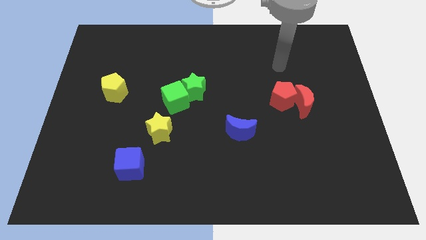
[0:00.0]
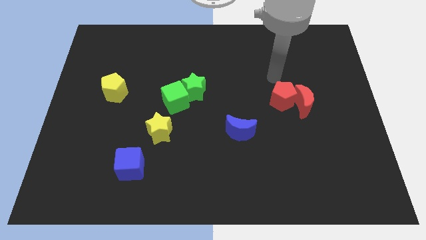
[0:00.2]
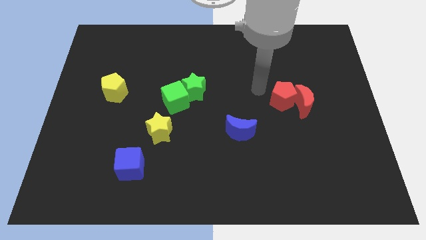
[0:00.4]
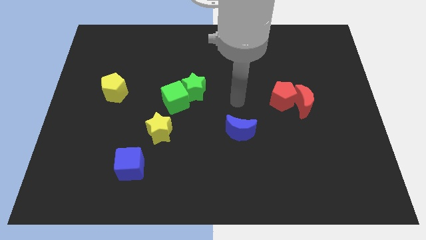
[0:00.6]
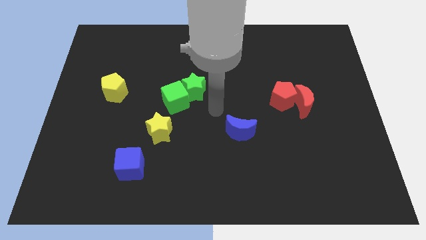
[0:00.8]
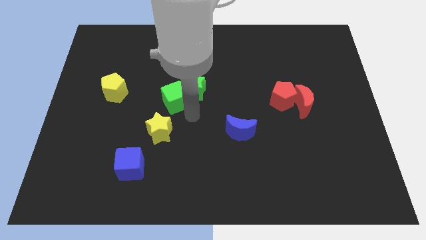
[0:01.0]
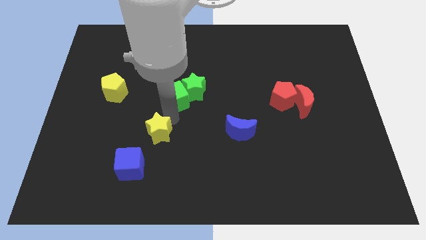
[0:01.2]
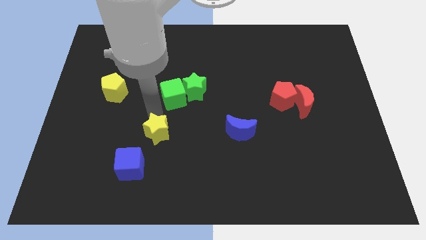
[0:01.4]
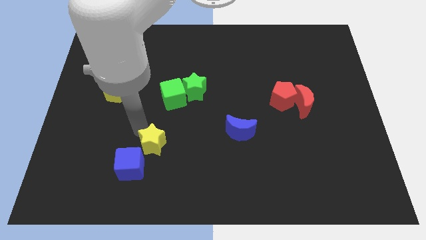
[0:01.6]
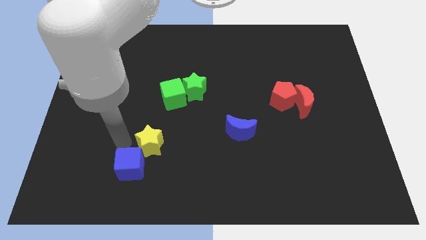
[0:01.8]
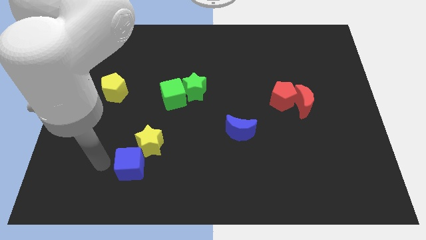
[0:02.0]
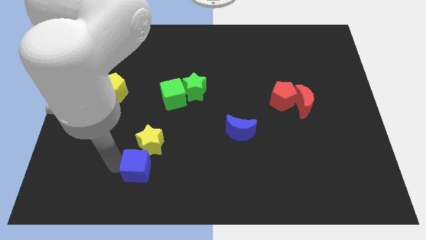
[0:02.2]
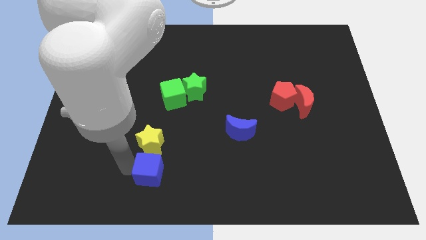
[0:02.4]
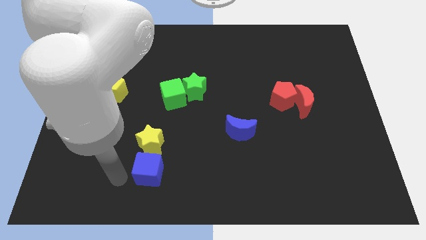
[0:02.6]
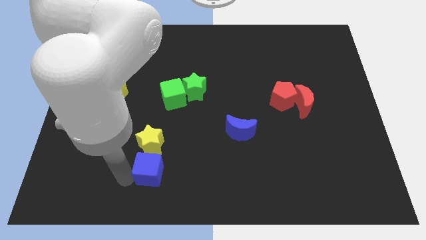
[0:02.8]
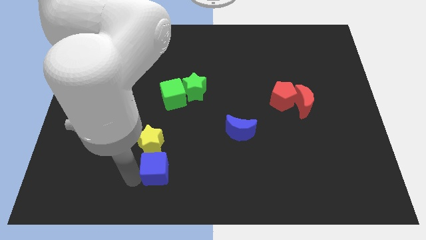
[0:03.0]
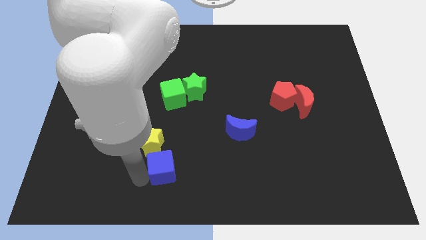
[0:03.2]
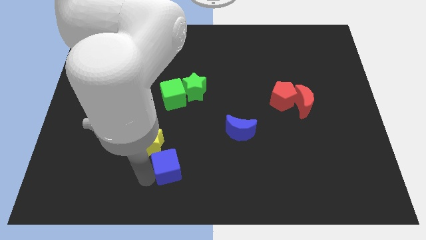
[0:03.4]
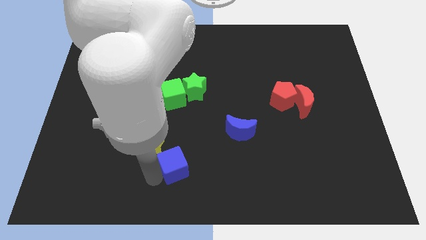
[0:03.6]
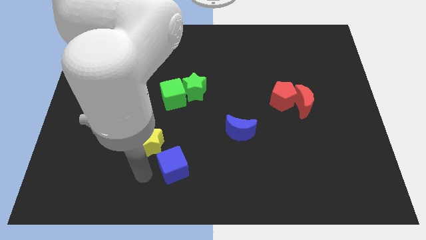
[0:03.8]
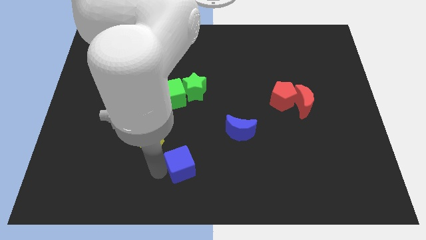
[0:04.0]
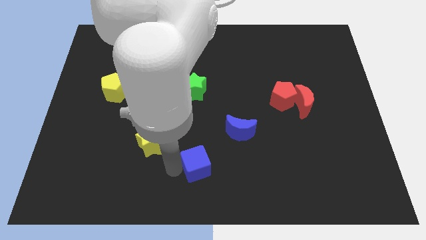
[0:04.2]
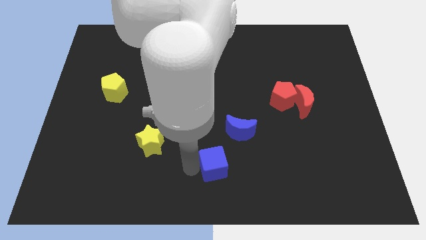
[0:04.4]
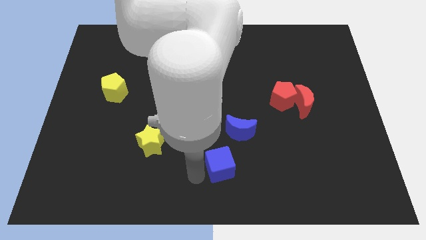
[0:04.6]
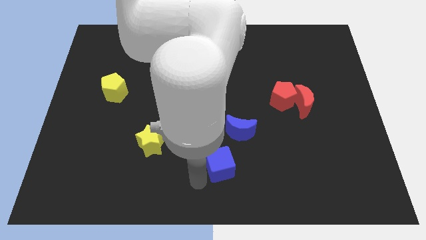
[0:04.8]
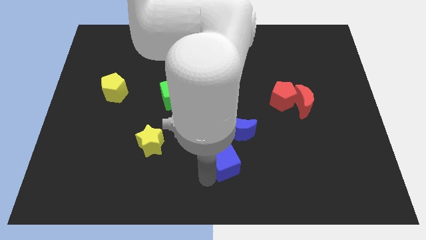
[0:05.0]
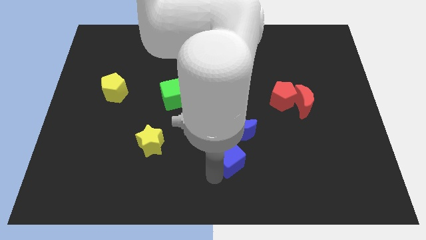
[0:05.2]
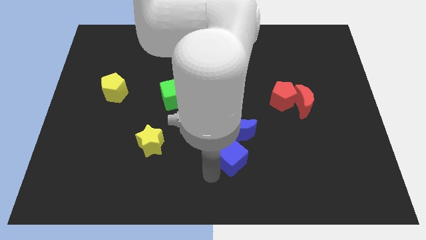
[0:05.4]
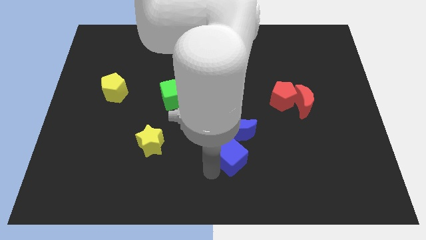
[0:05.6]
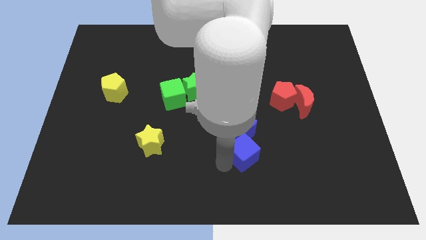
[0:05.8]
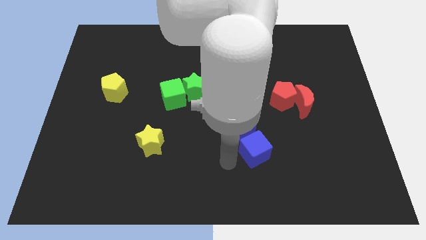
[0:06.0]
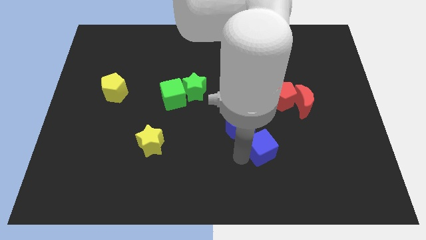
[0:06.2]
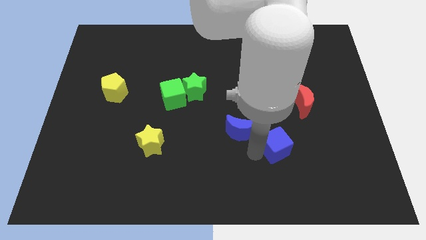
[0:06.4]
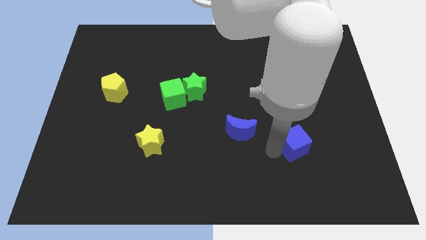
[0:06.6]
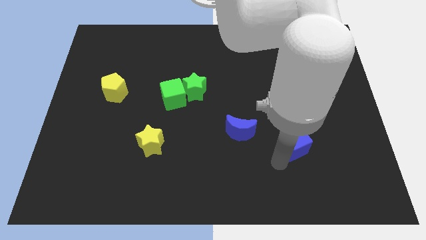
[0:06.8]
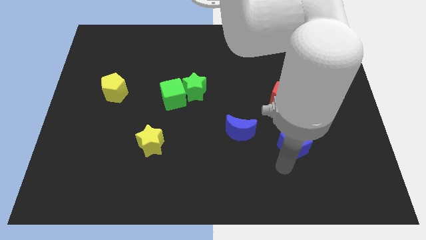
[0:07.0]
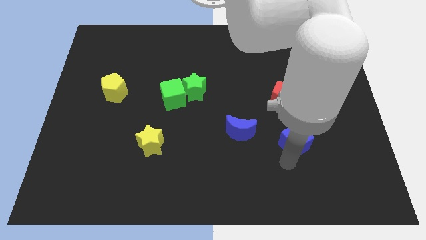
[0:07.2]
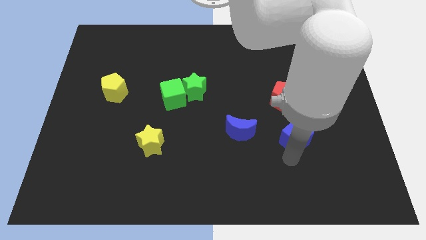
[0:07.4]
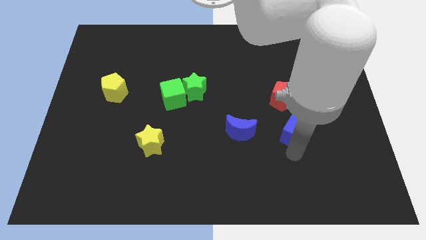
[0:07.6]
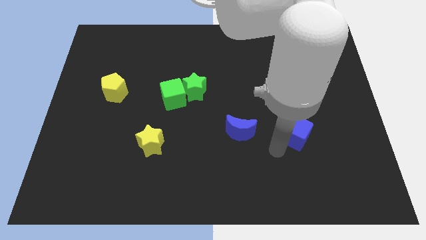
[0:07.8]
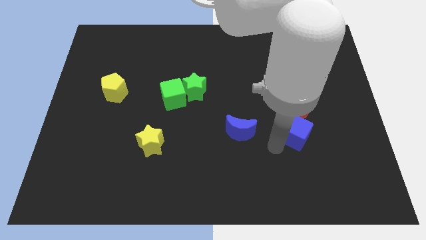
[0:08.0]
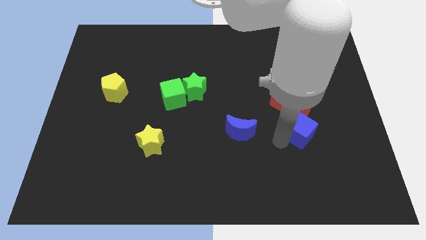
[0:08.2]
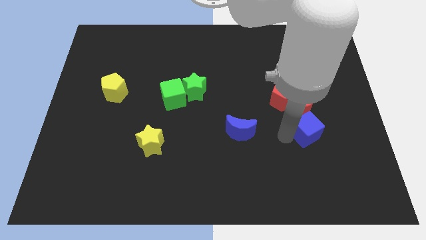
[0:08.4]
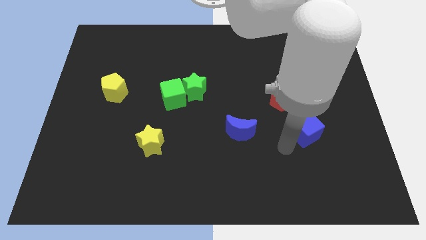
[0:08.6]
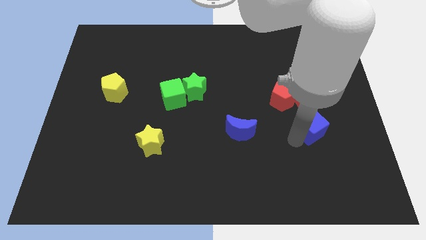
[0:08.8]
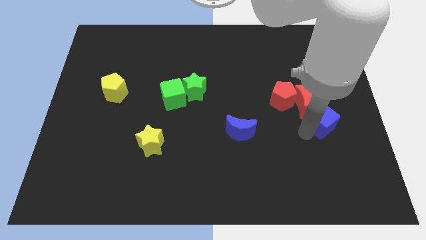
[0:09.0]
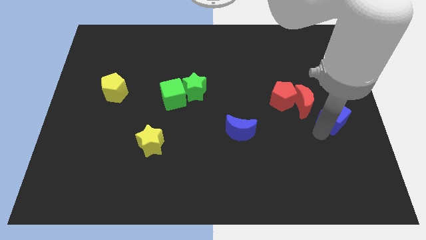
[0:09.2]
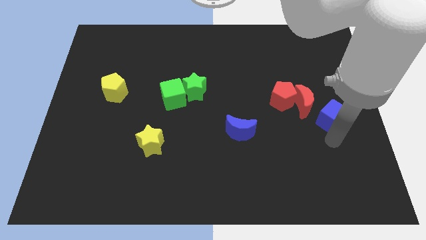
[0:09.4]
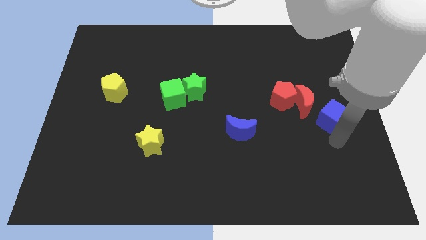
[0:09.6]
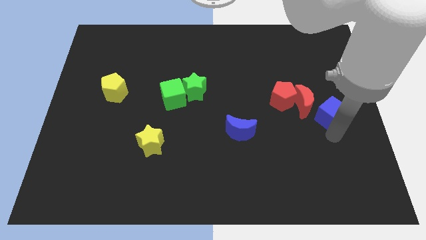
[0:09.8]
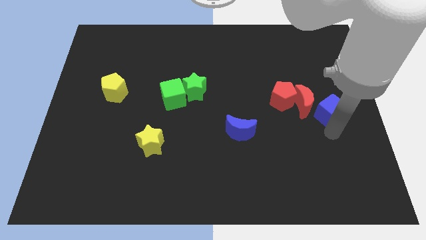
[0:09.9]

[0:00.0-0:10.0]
push the blue cube to the right of the red pentagon

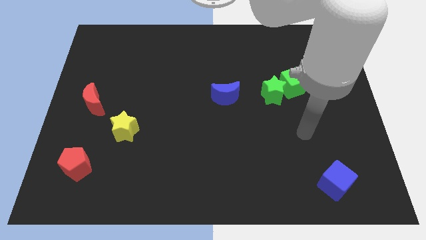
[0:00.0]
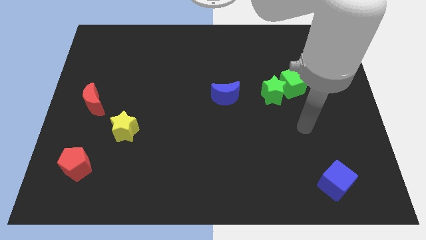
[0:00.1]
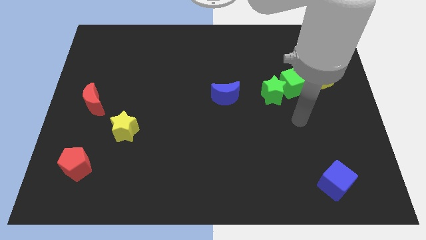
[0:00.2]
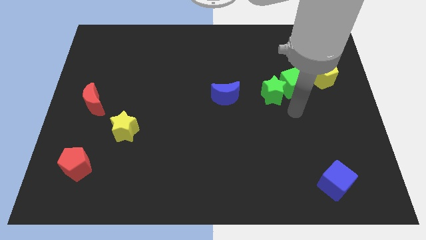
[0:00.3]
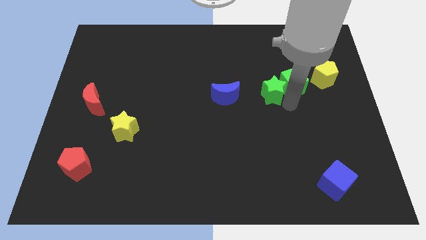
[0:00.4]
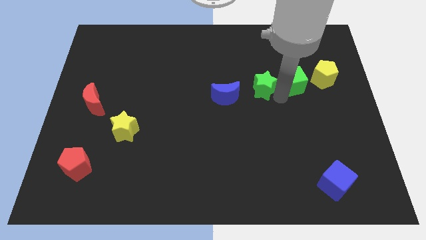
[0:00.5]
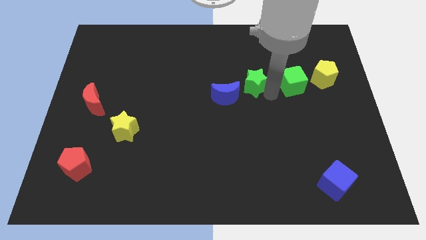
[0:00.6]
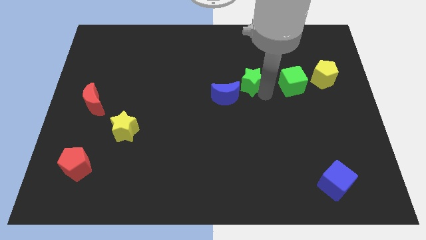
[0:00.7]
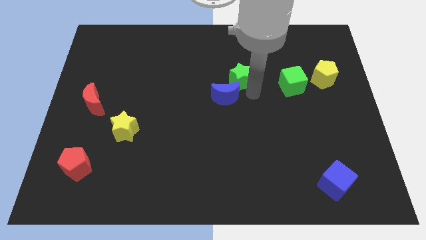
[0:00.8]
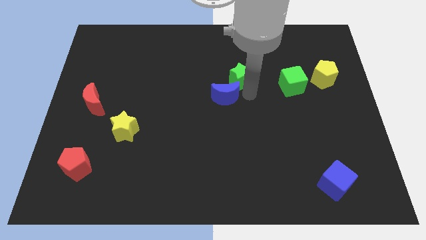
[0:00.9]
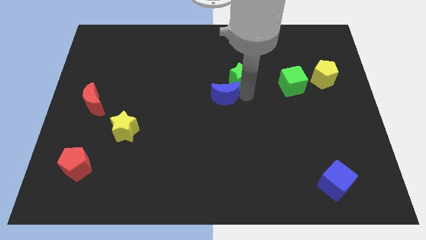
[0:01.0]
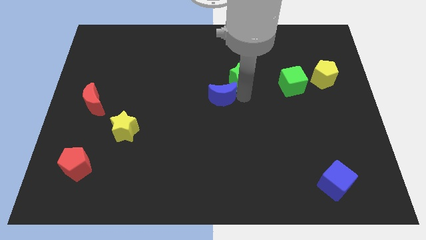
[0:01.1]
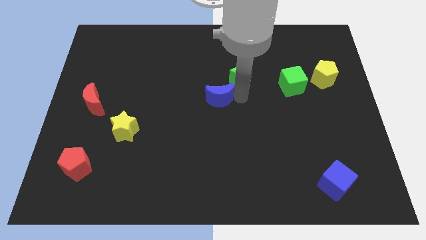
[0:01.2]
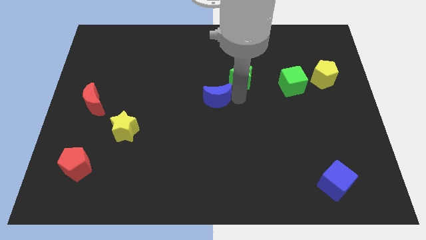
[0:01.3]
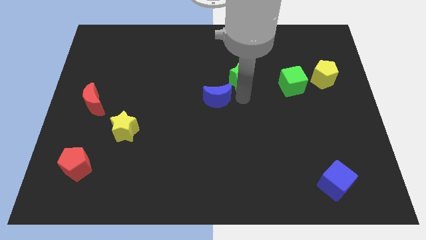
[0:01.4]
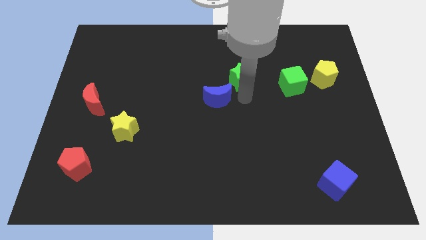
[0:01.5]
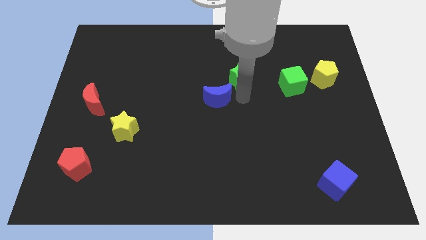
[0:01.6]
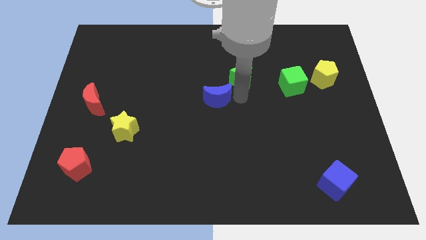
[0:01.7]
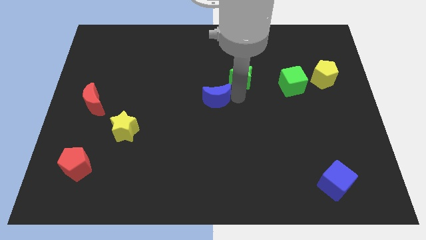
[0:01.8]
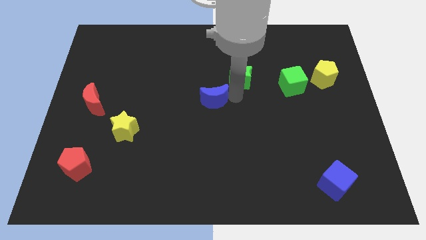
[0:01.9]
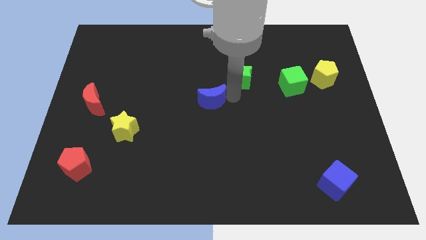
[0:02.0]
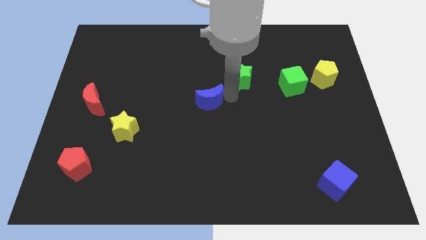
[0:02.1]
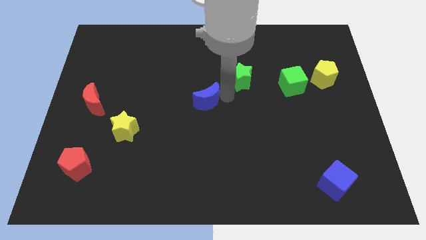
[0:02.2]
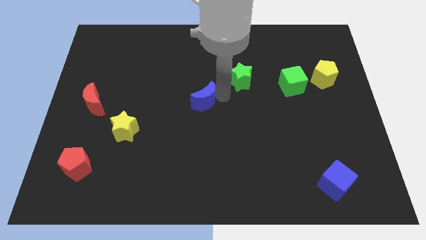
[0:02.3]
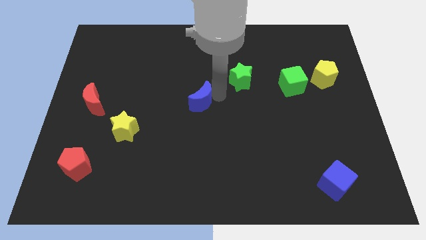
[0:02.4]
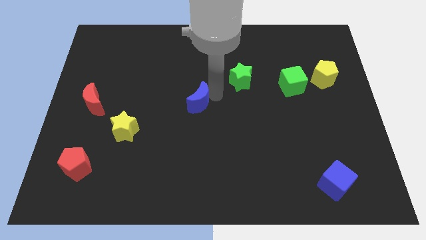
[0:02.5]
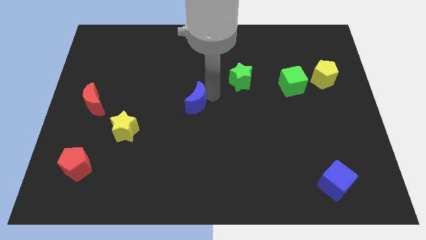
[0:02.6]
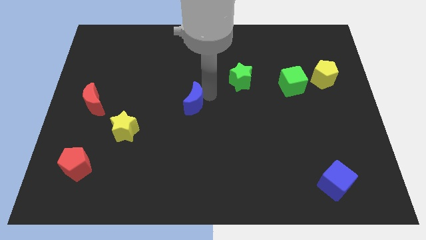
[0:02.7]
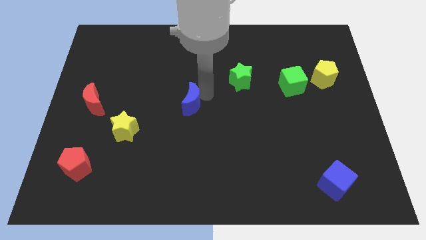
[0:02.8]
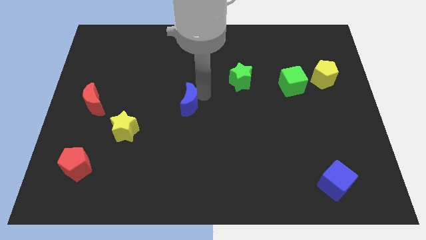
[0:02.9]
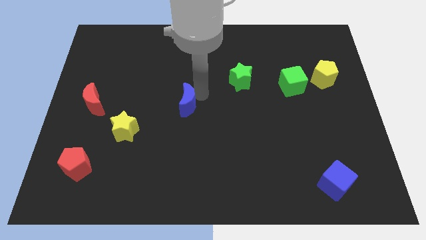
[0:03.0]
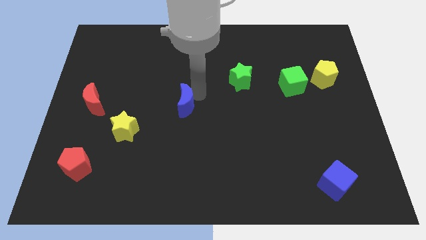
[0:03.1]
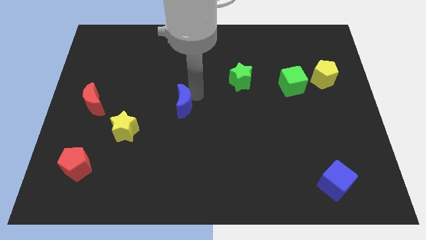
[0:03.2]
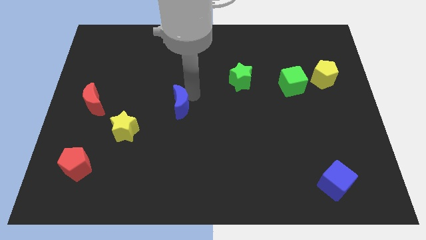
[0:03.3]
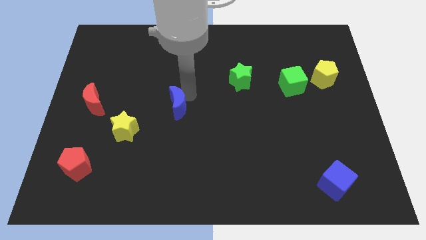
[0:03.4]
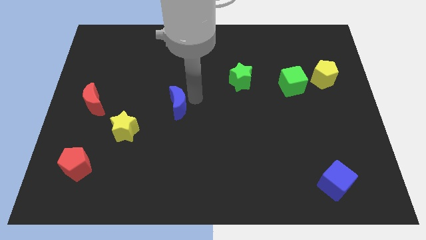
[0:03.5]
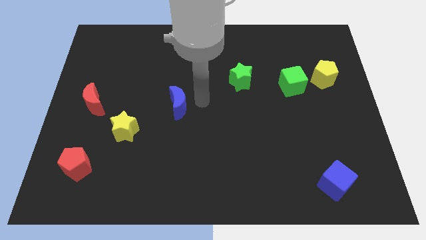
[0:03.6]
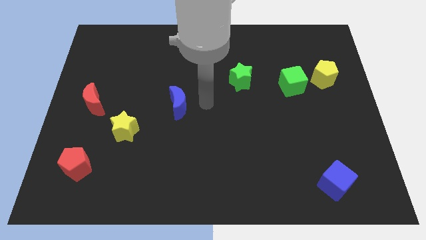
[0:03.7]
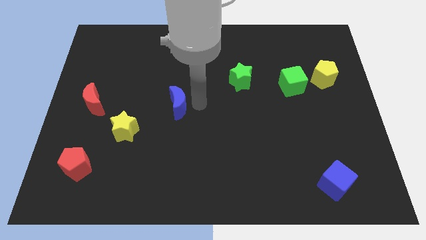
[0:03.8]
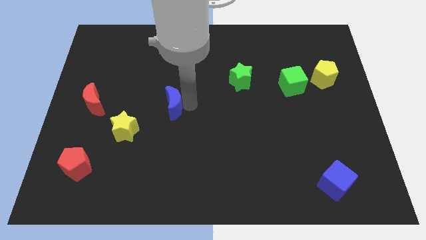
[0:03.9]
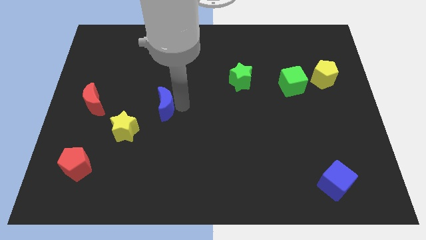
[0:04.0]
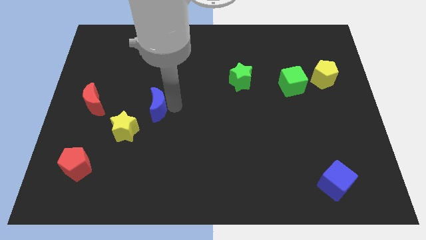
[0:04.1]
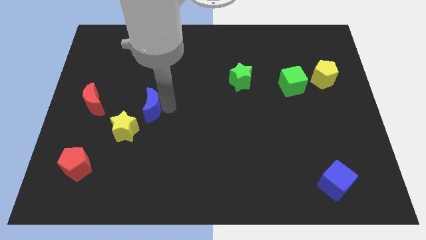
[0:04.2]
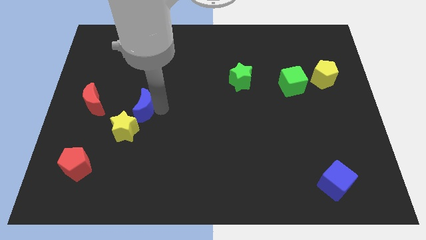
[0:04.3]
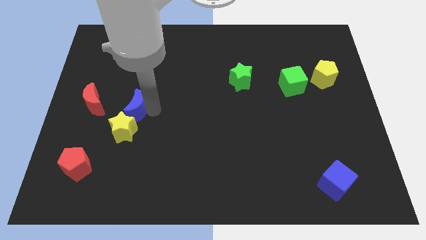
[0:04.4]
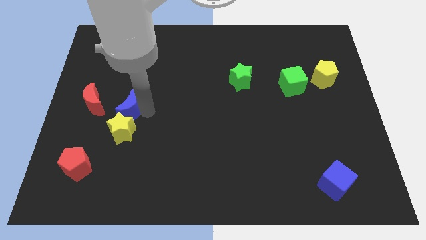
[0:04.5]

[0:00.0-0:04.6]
push the blue moon diagonally up and to the left of the yellow star
